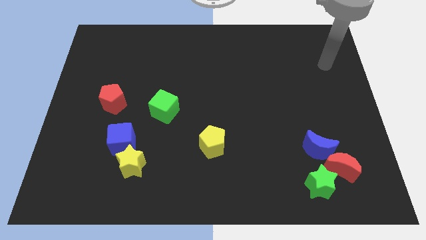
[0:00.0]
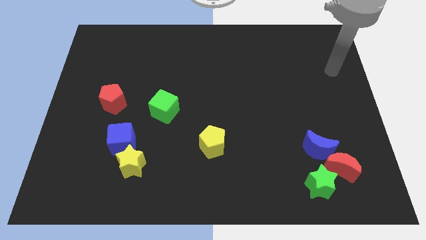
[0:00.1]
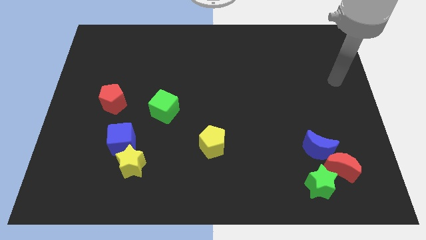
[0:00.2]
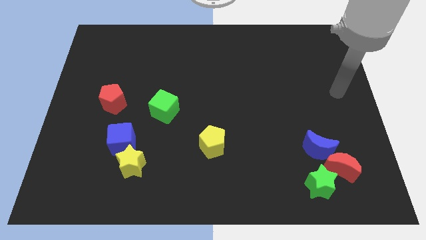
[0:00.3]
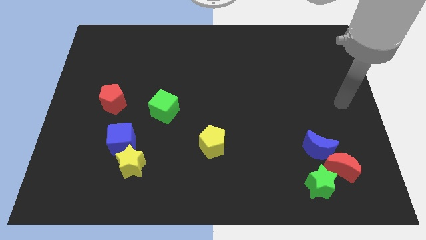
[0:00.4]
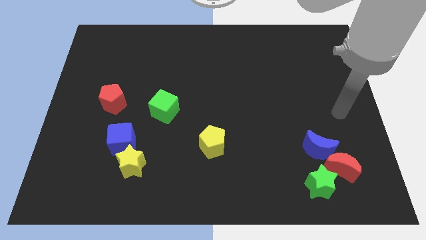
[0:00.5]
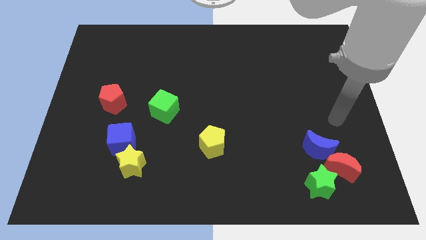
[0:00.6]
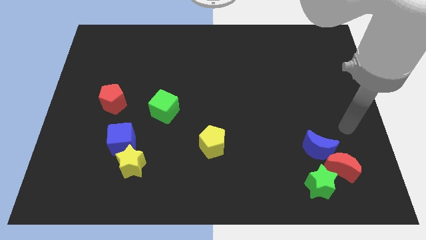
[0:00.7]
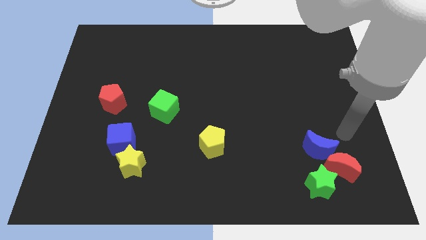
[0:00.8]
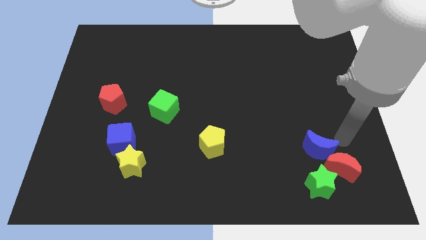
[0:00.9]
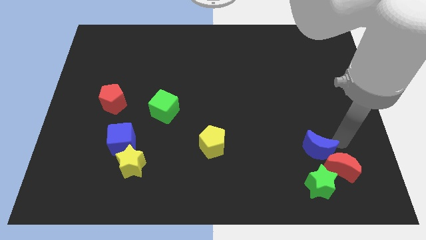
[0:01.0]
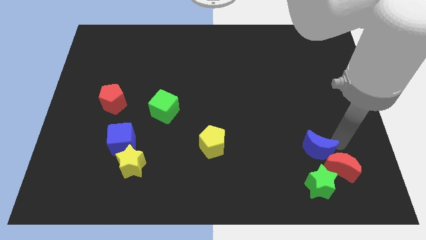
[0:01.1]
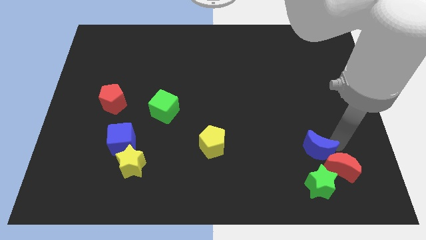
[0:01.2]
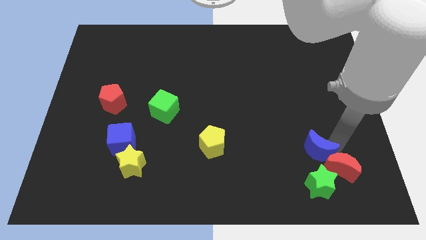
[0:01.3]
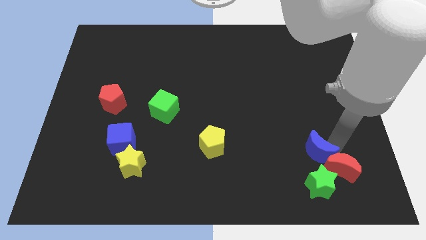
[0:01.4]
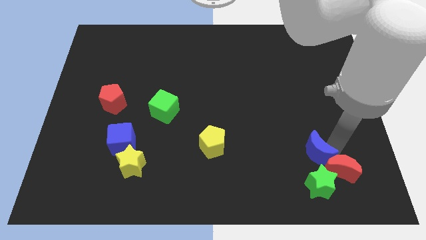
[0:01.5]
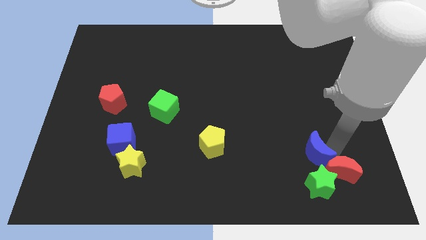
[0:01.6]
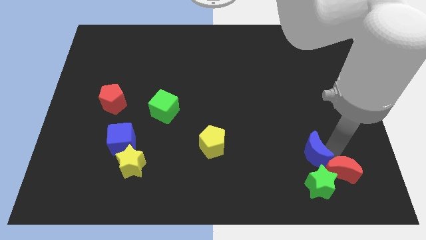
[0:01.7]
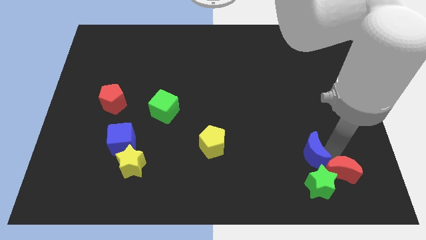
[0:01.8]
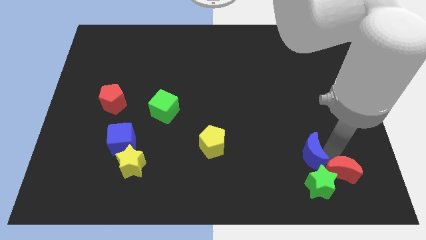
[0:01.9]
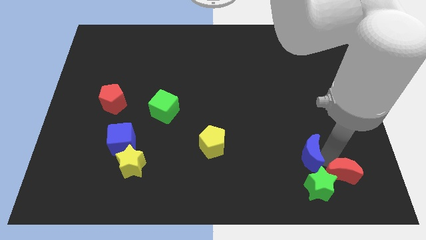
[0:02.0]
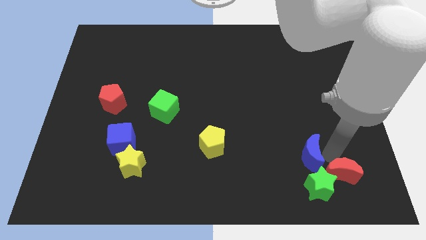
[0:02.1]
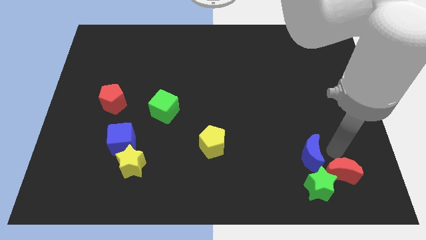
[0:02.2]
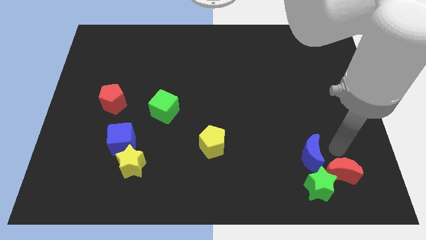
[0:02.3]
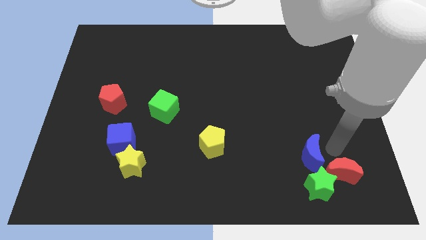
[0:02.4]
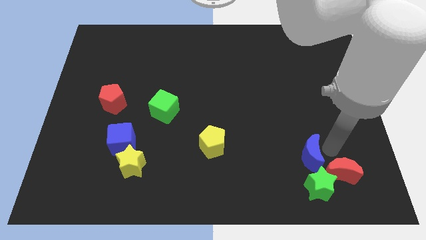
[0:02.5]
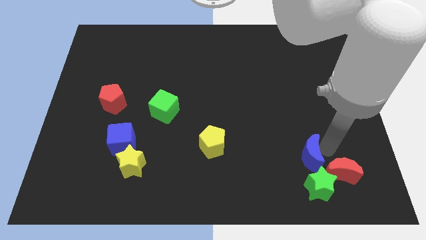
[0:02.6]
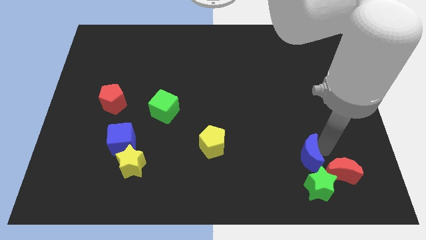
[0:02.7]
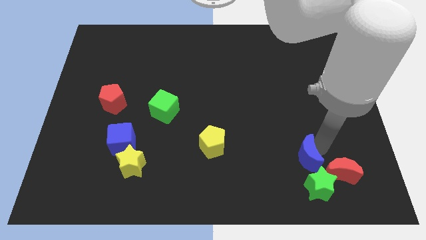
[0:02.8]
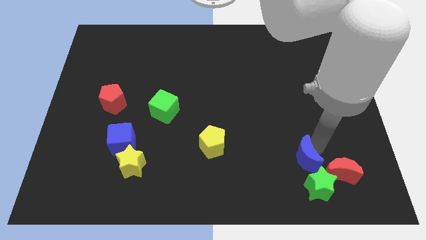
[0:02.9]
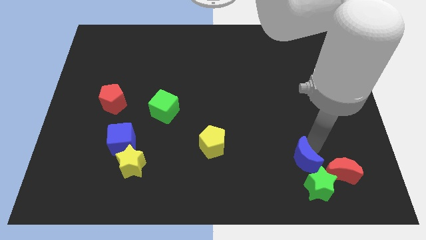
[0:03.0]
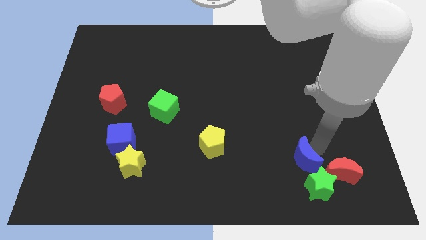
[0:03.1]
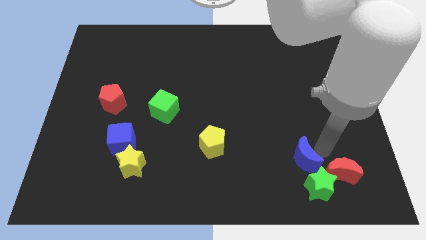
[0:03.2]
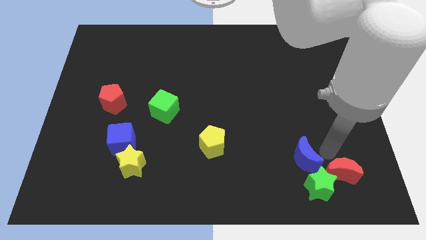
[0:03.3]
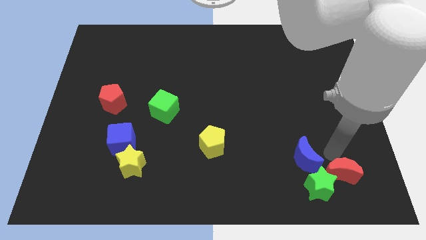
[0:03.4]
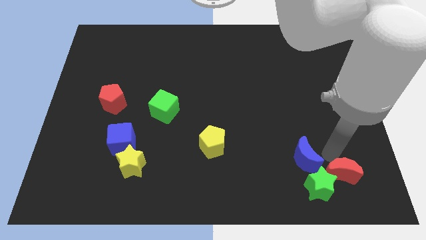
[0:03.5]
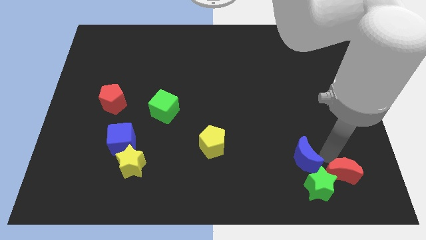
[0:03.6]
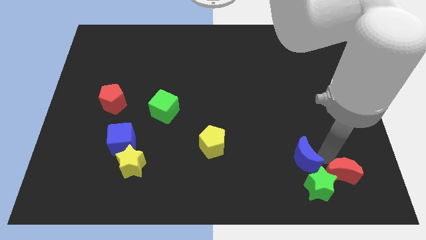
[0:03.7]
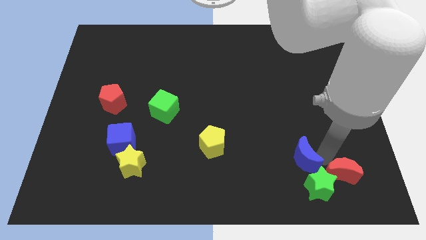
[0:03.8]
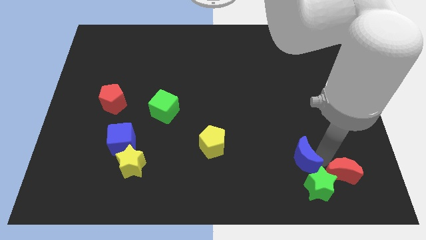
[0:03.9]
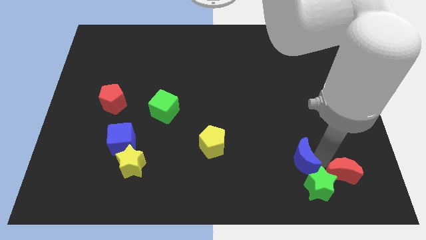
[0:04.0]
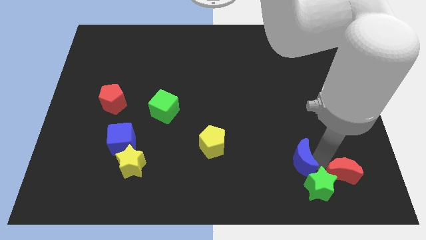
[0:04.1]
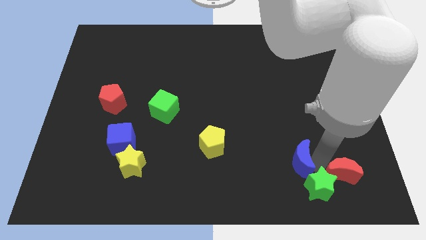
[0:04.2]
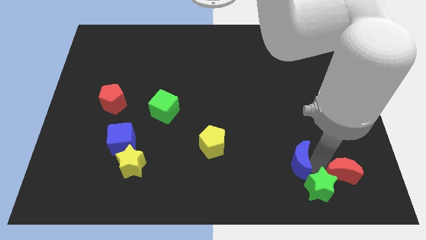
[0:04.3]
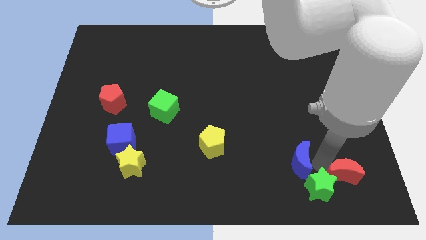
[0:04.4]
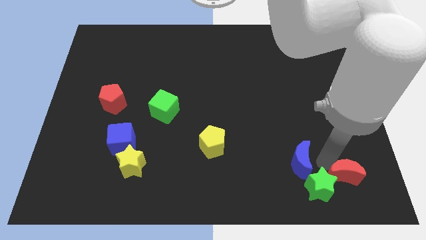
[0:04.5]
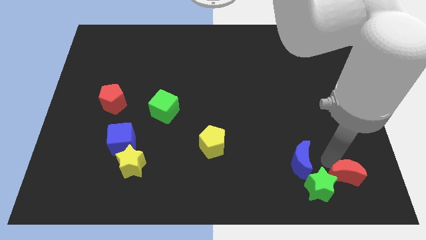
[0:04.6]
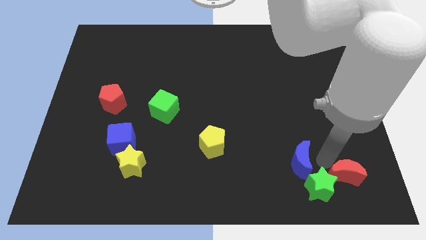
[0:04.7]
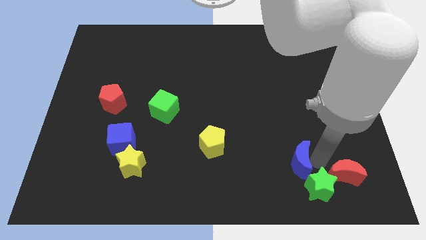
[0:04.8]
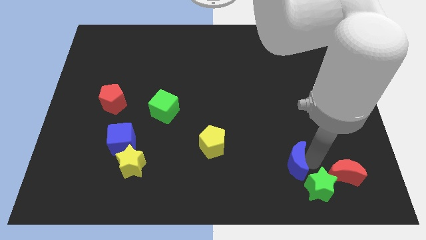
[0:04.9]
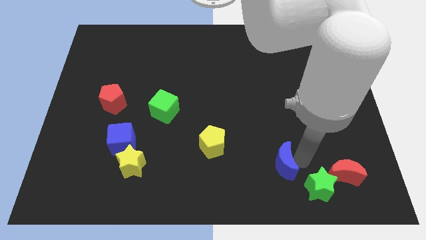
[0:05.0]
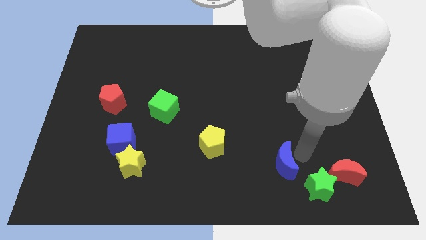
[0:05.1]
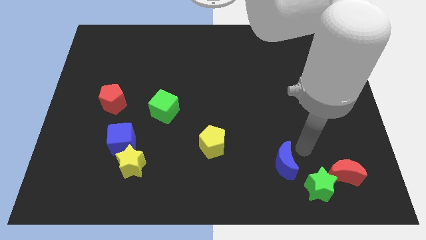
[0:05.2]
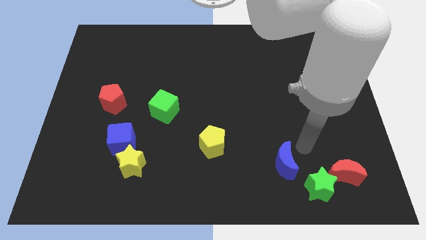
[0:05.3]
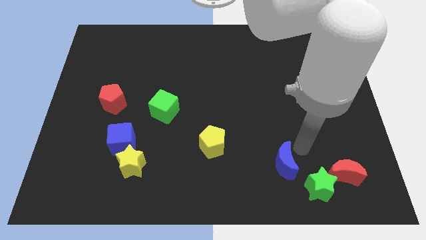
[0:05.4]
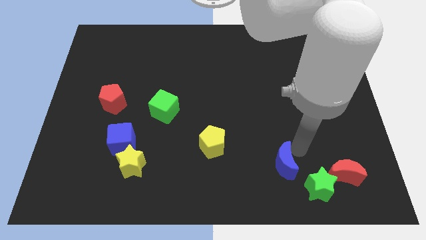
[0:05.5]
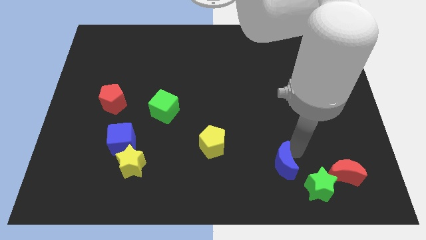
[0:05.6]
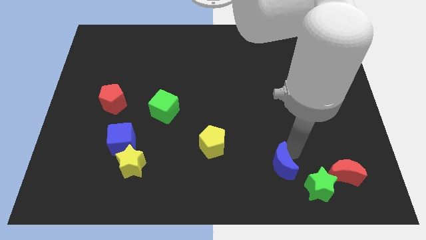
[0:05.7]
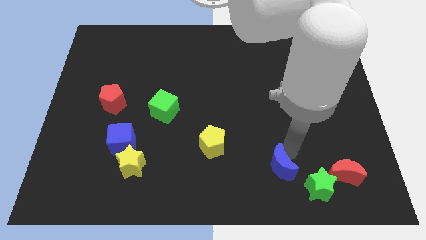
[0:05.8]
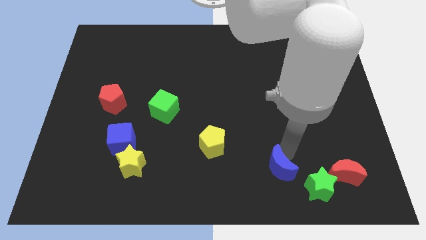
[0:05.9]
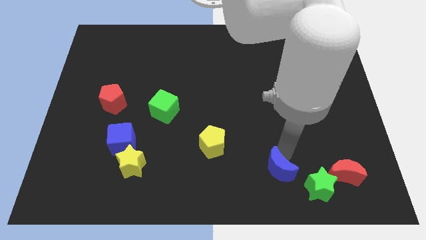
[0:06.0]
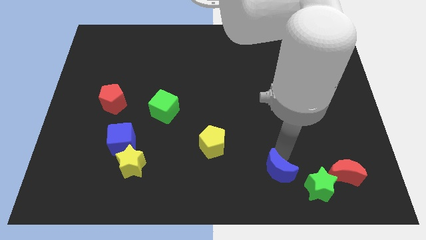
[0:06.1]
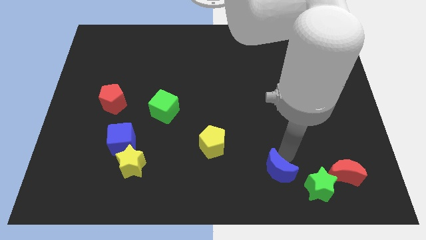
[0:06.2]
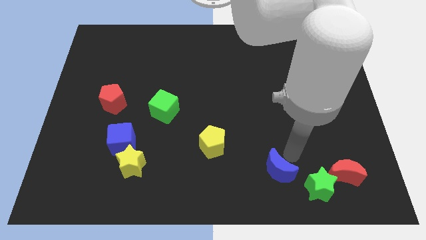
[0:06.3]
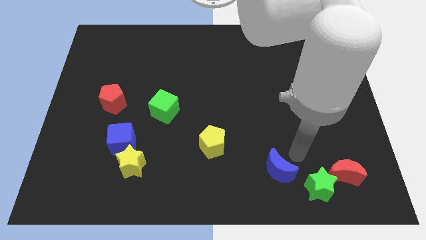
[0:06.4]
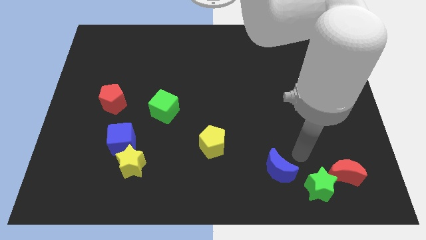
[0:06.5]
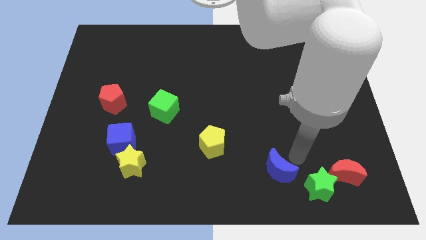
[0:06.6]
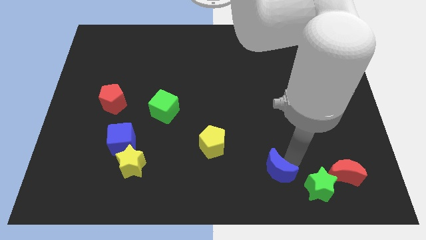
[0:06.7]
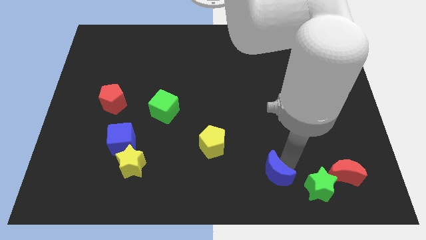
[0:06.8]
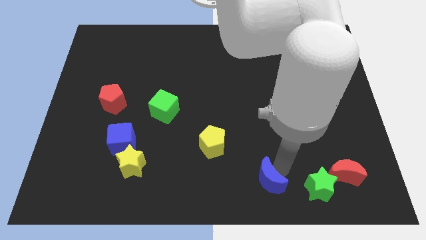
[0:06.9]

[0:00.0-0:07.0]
move the blue moon to the bottom
